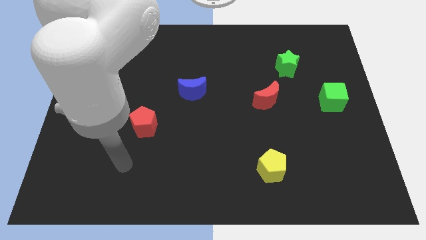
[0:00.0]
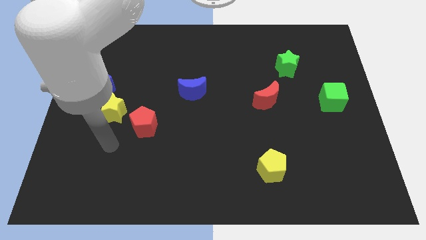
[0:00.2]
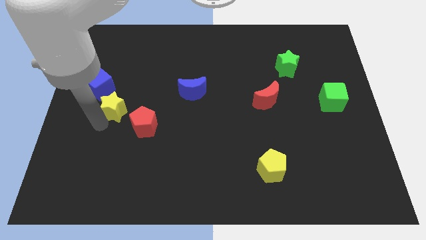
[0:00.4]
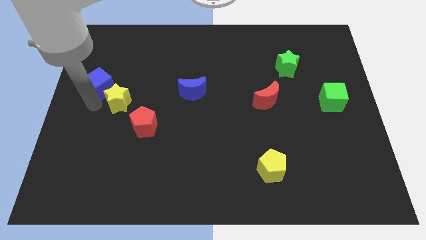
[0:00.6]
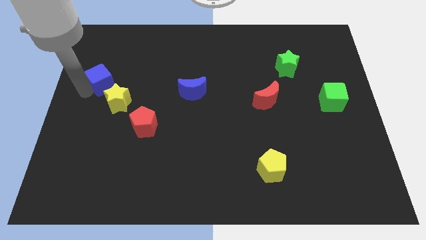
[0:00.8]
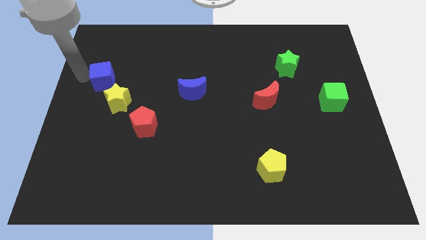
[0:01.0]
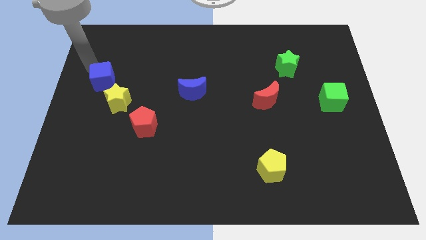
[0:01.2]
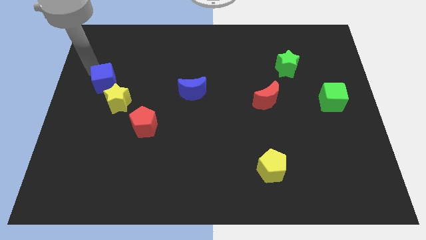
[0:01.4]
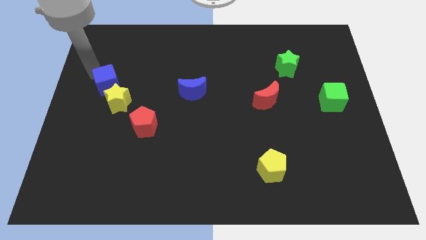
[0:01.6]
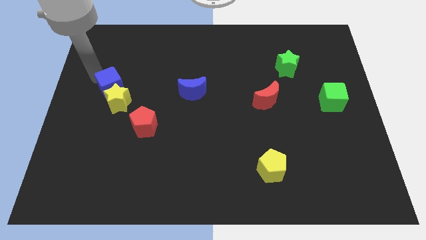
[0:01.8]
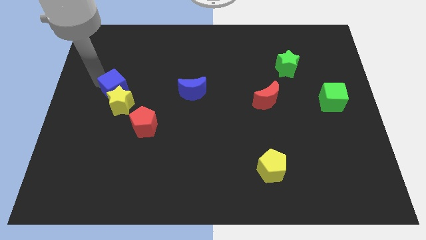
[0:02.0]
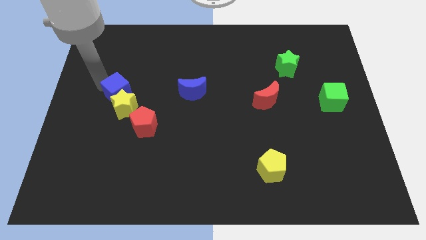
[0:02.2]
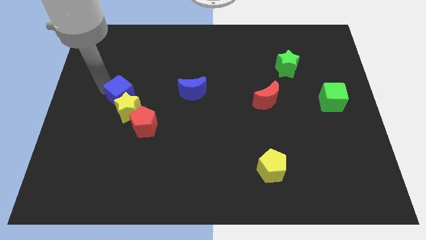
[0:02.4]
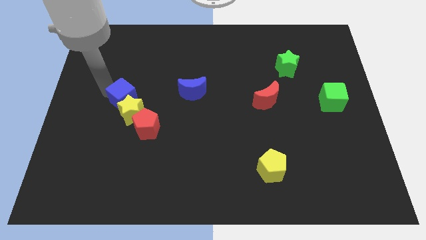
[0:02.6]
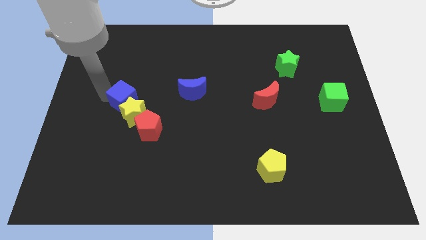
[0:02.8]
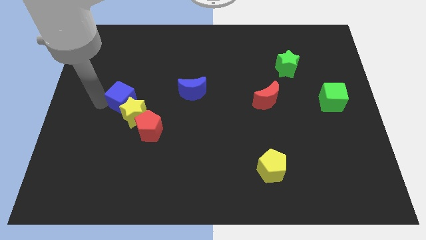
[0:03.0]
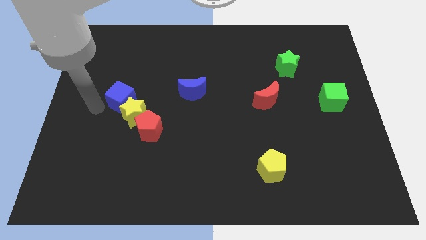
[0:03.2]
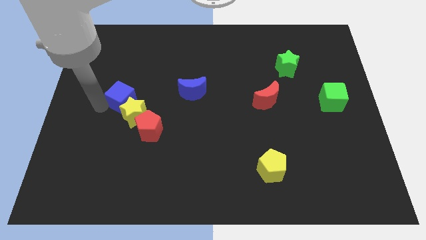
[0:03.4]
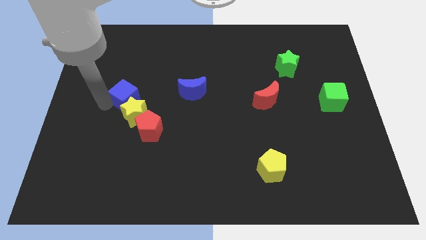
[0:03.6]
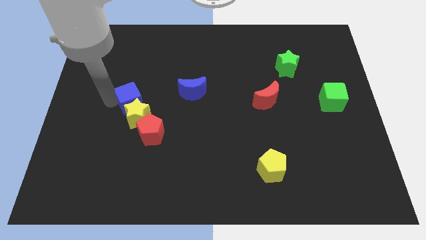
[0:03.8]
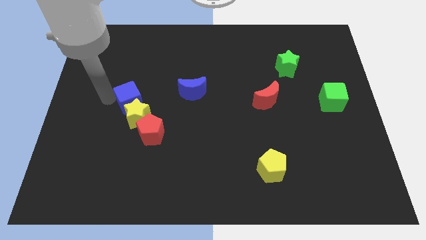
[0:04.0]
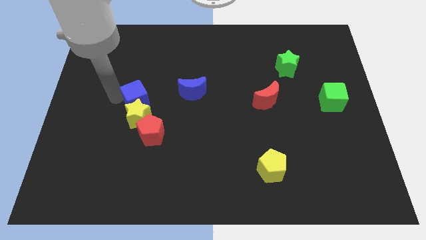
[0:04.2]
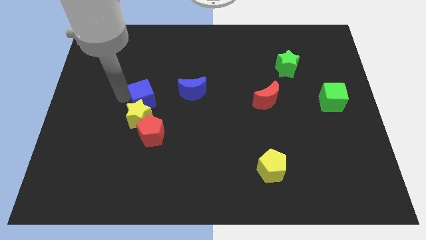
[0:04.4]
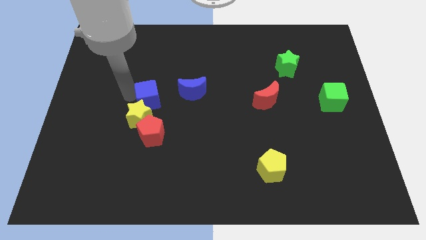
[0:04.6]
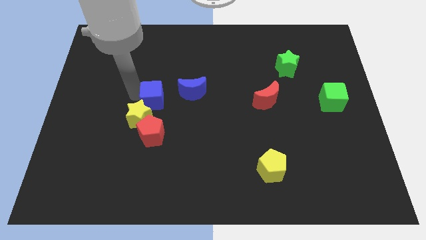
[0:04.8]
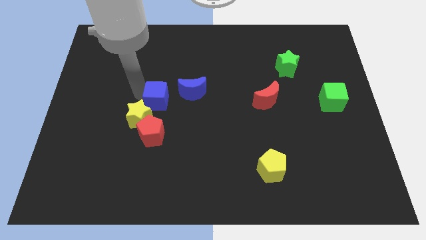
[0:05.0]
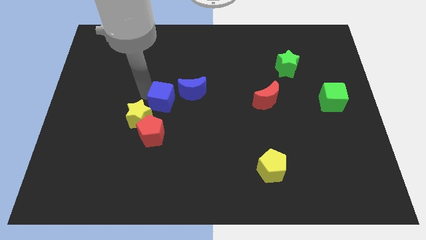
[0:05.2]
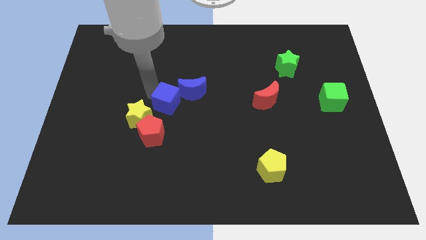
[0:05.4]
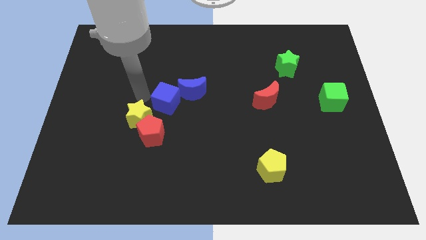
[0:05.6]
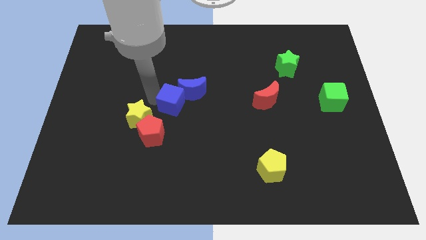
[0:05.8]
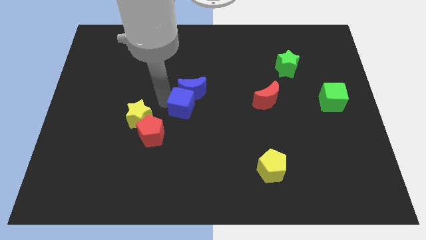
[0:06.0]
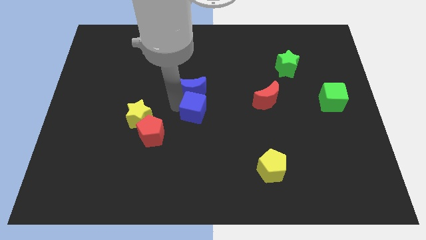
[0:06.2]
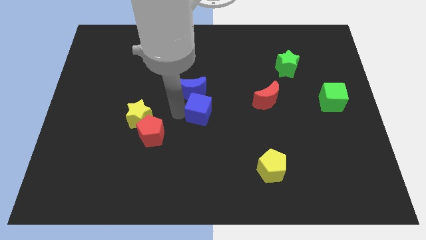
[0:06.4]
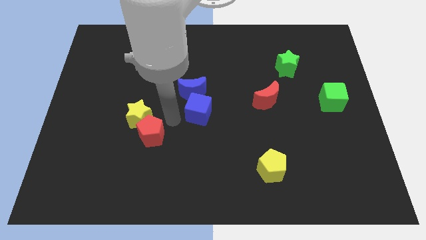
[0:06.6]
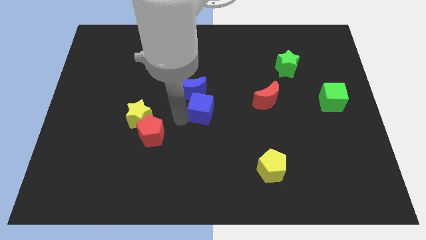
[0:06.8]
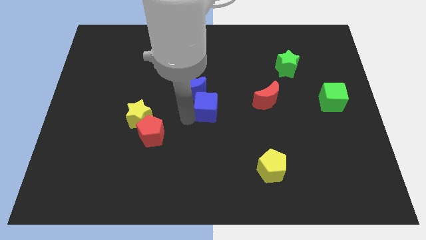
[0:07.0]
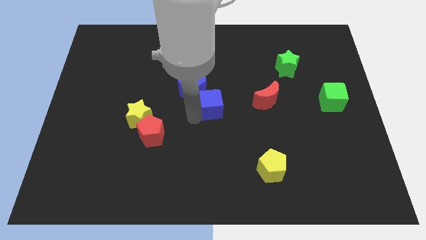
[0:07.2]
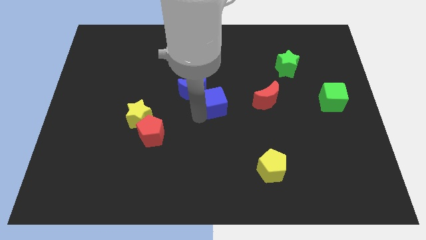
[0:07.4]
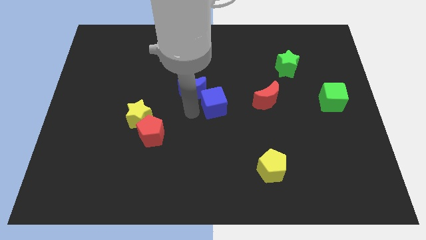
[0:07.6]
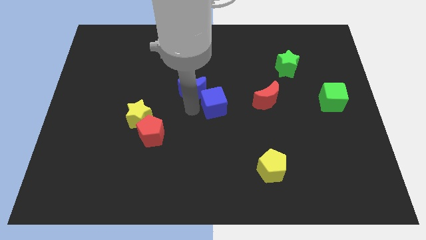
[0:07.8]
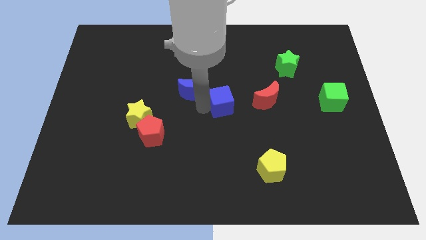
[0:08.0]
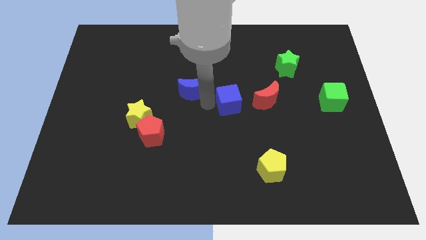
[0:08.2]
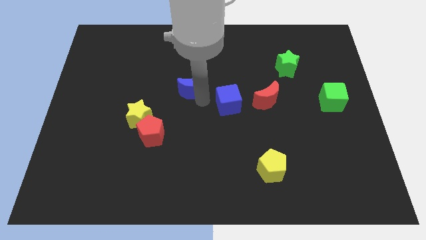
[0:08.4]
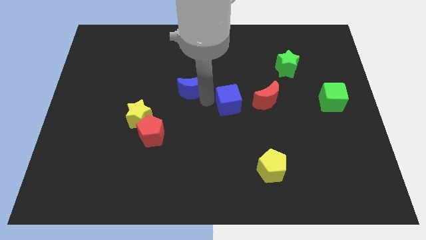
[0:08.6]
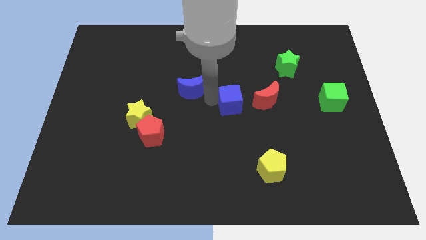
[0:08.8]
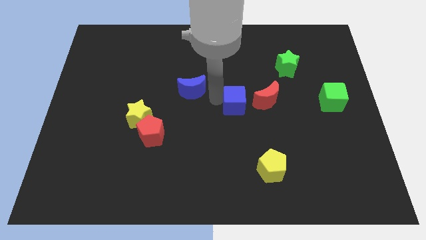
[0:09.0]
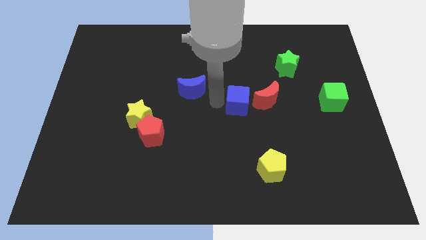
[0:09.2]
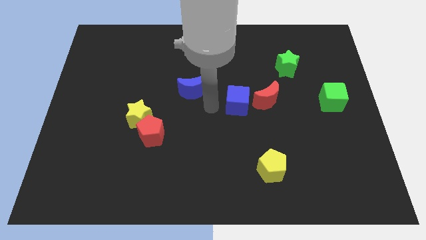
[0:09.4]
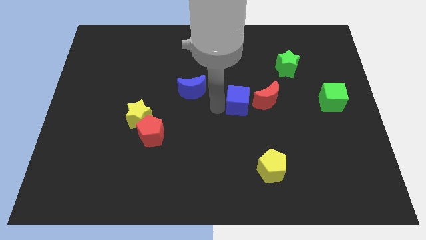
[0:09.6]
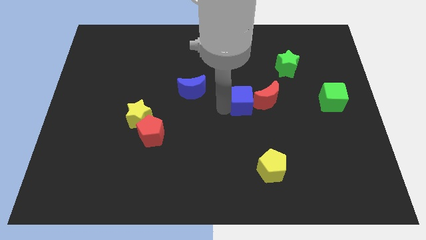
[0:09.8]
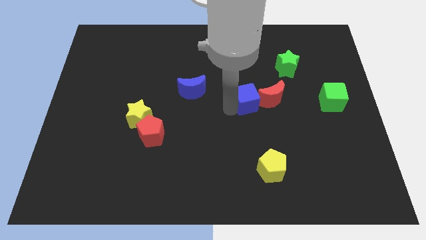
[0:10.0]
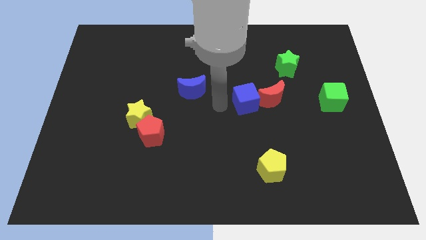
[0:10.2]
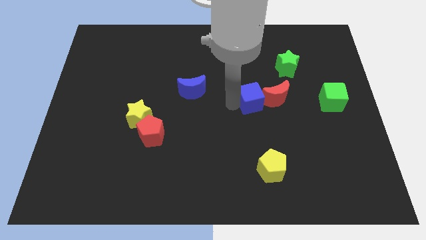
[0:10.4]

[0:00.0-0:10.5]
push the blue cube towards the red moon

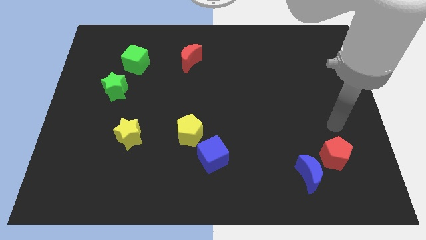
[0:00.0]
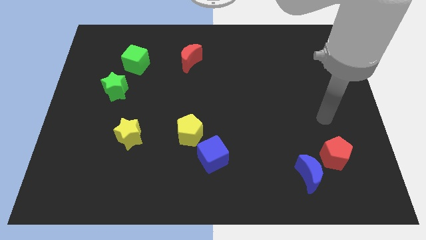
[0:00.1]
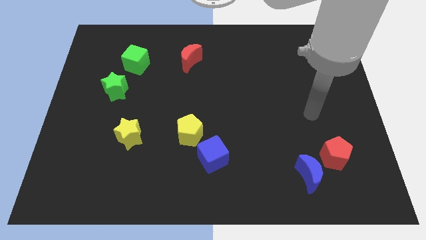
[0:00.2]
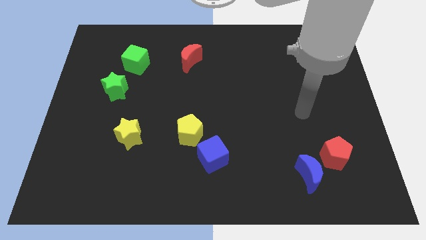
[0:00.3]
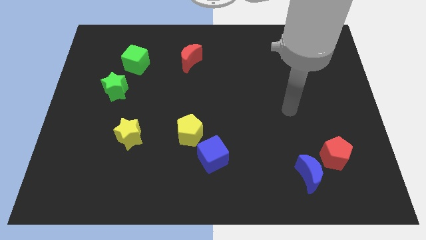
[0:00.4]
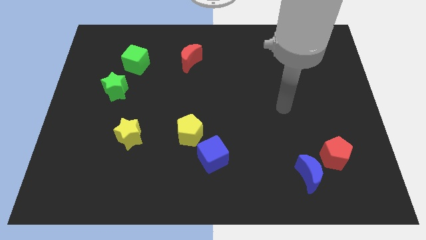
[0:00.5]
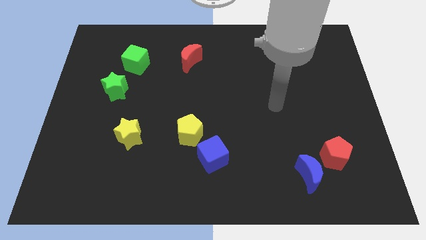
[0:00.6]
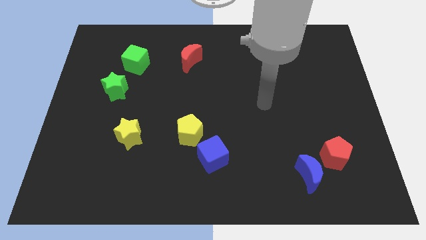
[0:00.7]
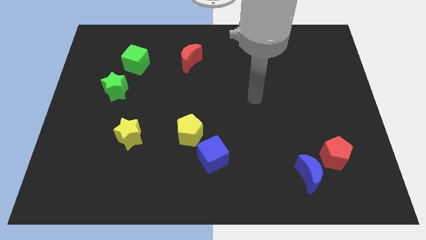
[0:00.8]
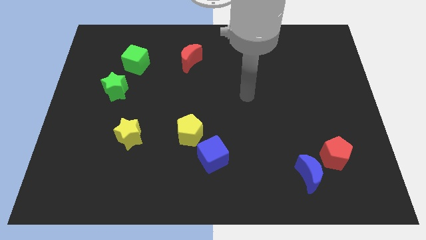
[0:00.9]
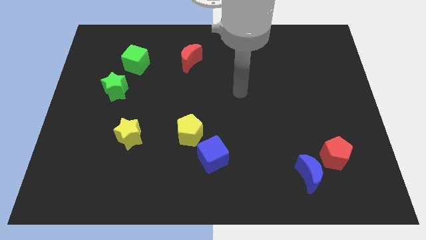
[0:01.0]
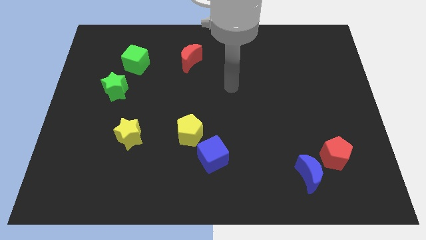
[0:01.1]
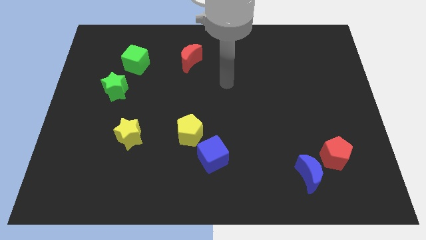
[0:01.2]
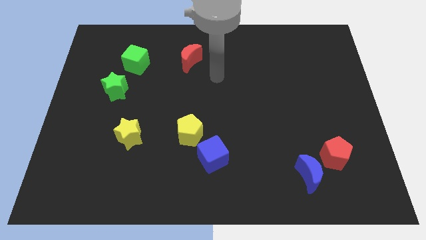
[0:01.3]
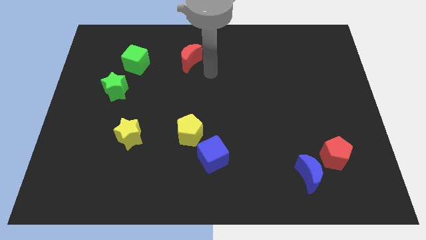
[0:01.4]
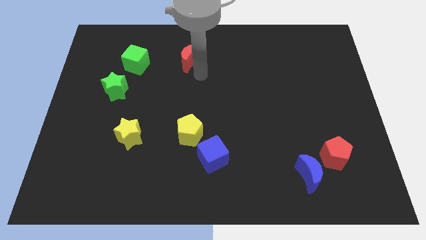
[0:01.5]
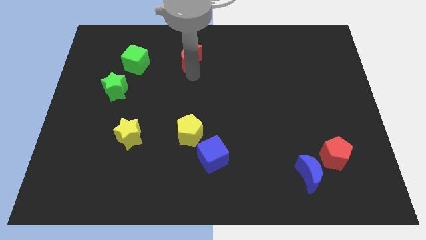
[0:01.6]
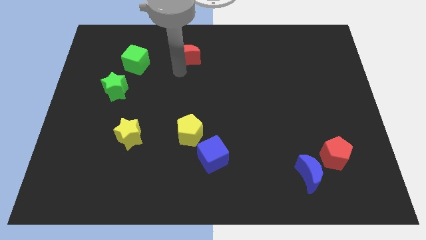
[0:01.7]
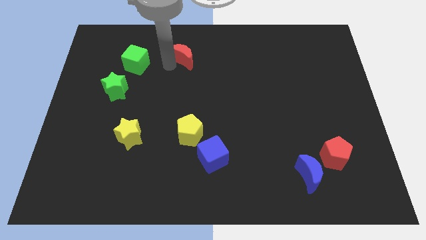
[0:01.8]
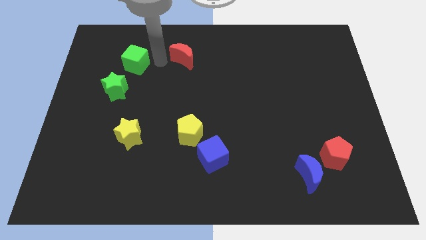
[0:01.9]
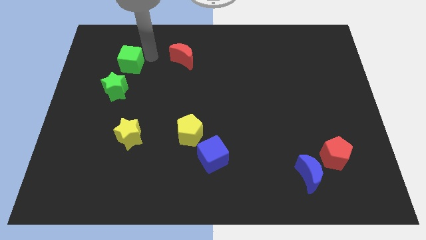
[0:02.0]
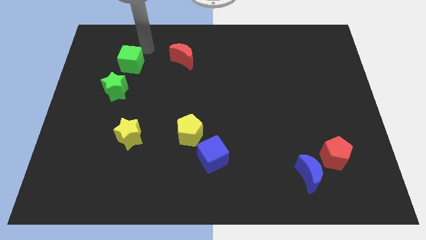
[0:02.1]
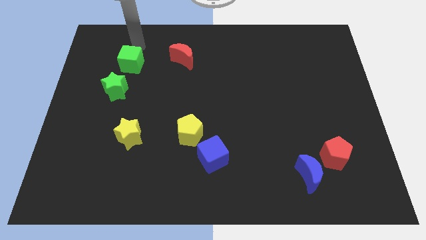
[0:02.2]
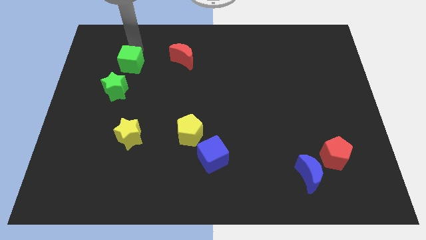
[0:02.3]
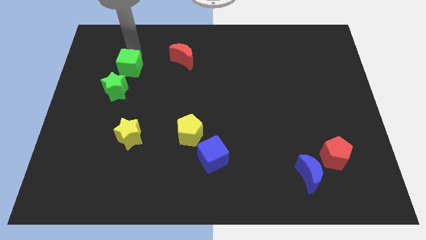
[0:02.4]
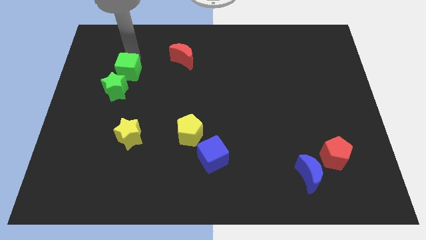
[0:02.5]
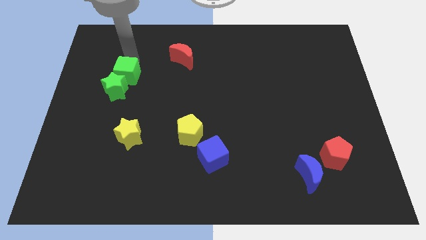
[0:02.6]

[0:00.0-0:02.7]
push the green cube close to the green star

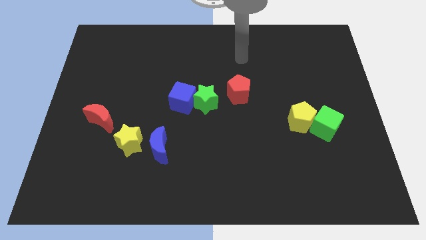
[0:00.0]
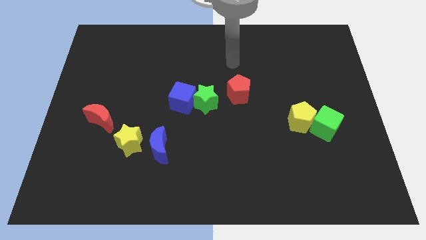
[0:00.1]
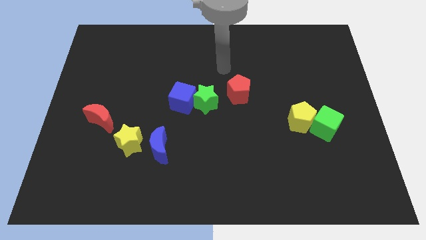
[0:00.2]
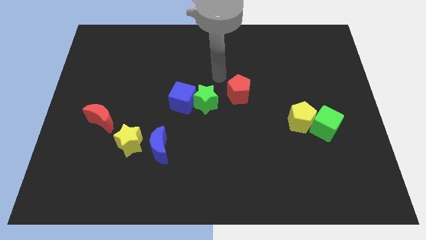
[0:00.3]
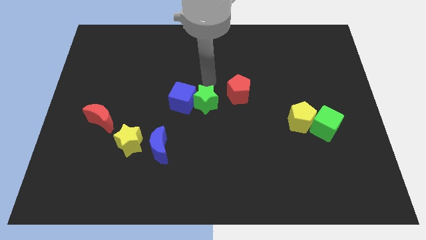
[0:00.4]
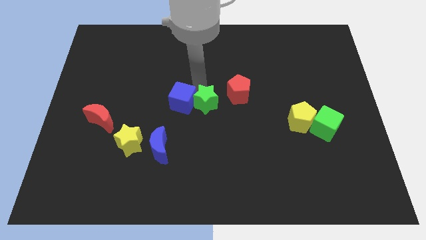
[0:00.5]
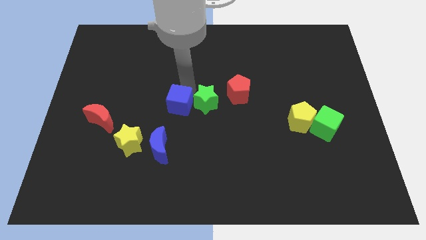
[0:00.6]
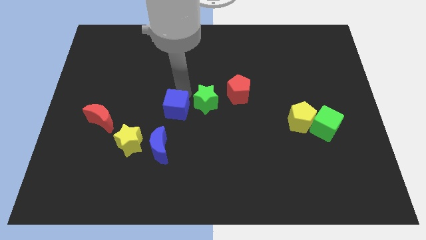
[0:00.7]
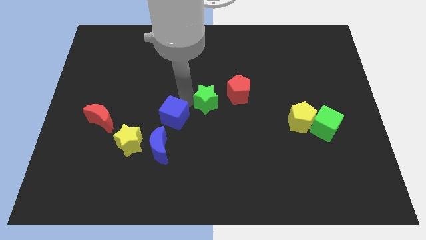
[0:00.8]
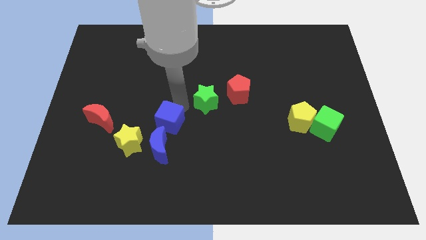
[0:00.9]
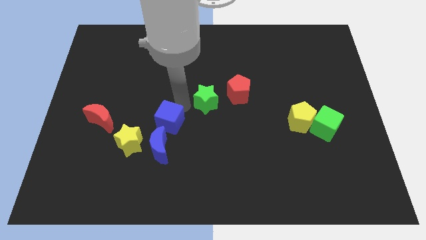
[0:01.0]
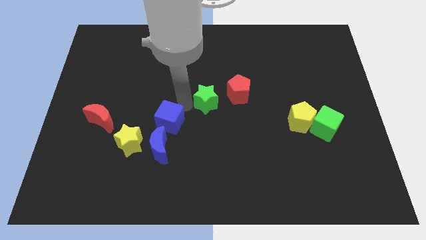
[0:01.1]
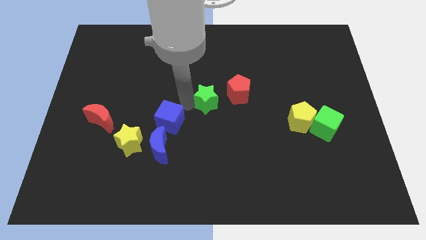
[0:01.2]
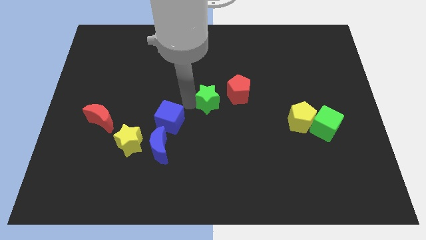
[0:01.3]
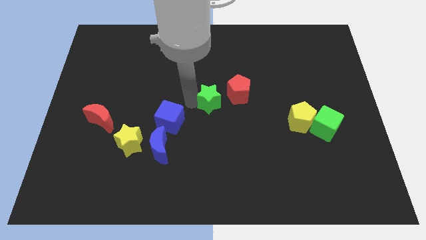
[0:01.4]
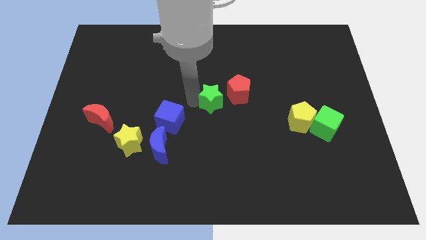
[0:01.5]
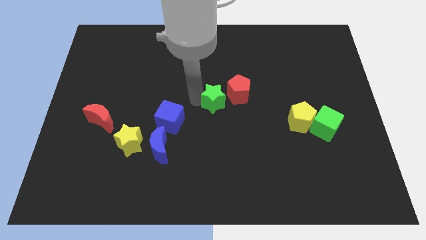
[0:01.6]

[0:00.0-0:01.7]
slide the green star to the red pentagon
